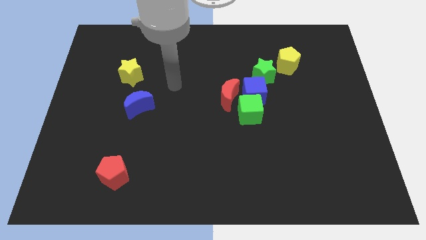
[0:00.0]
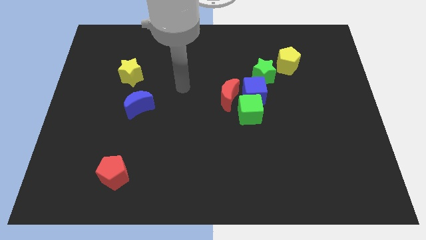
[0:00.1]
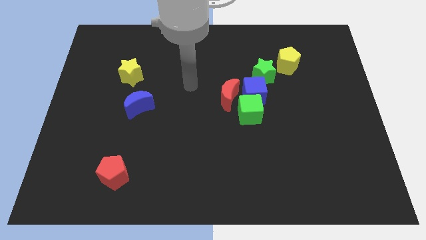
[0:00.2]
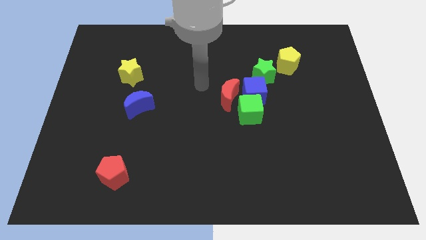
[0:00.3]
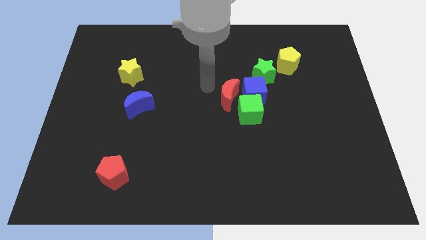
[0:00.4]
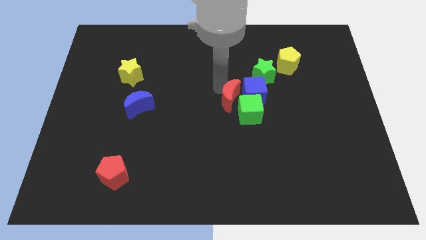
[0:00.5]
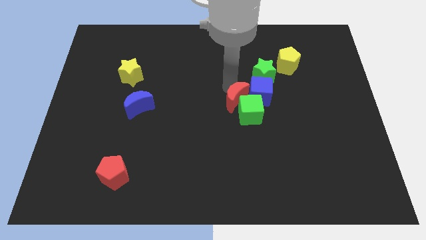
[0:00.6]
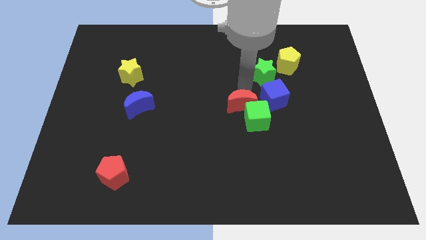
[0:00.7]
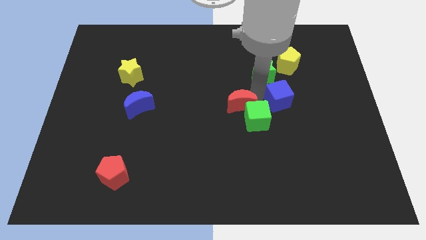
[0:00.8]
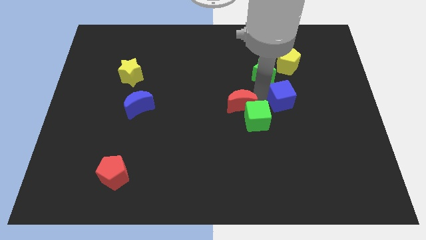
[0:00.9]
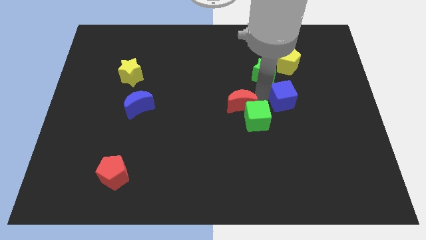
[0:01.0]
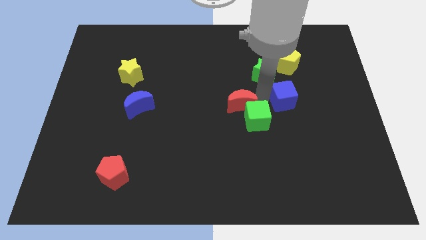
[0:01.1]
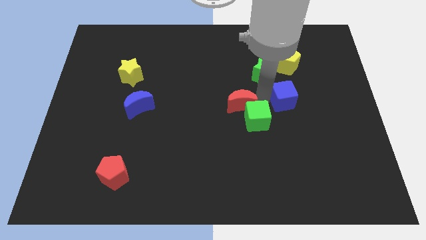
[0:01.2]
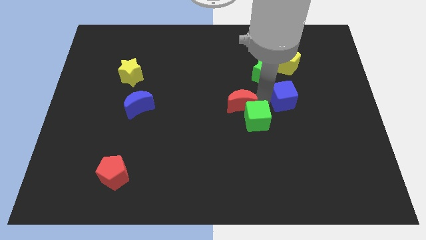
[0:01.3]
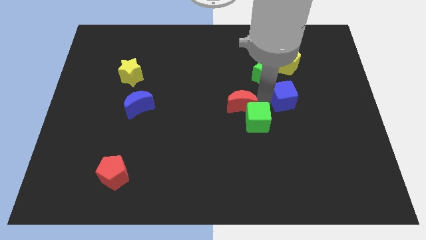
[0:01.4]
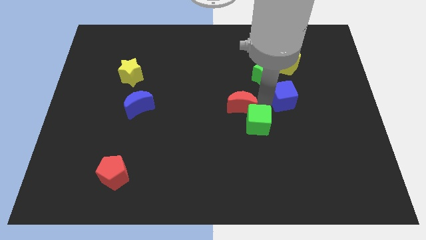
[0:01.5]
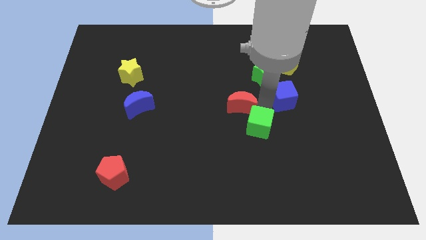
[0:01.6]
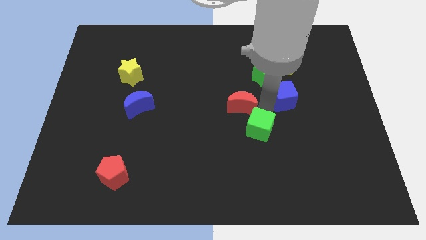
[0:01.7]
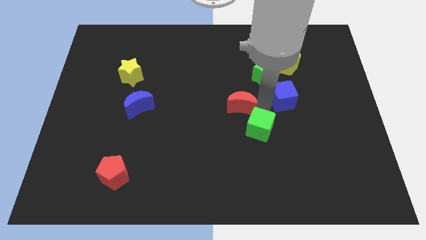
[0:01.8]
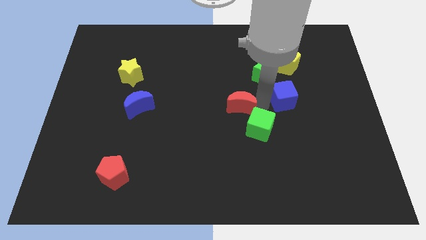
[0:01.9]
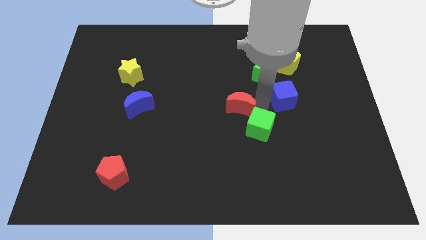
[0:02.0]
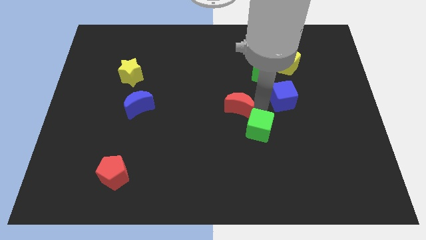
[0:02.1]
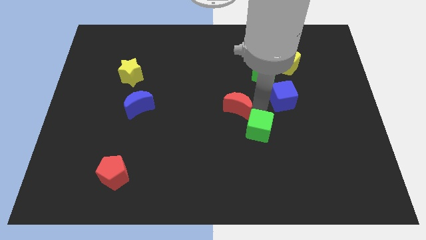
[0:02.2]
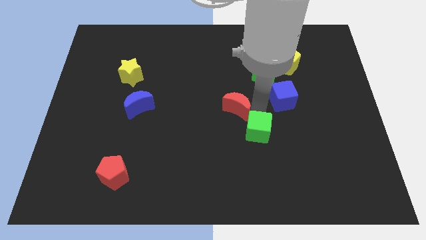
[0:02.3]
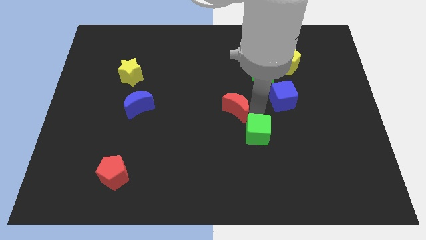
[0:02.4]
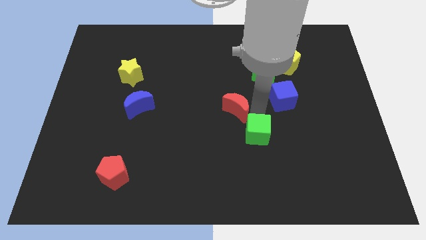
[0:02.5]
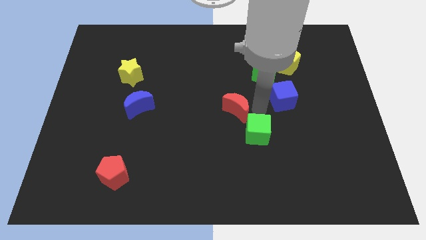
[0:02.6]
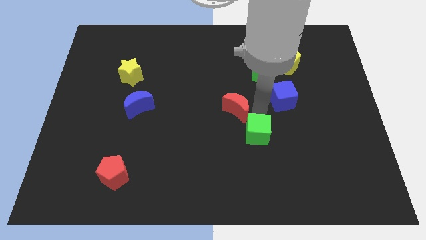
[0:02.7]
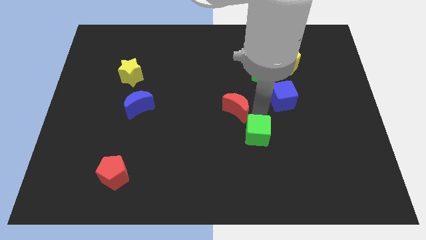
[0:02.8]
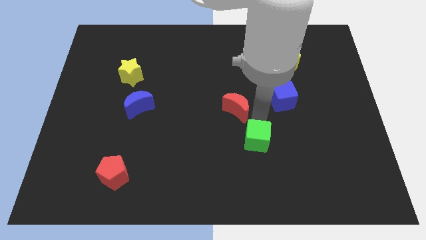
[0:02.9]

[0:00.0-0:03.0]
pull the green cube apart from the blue cube and red moon

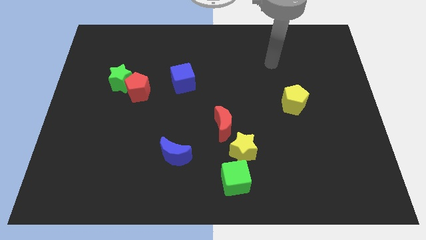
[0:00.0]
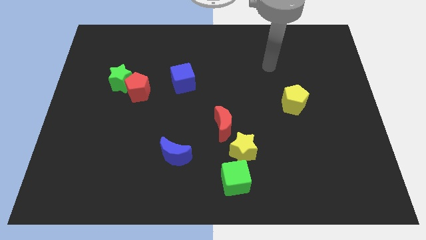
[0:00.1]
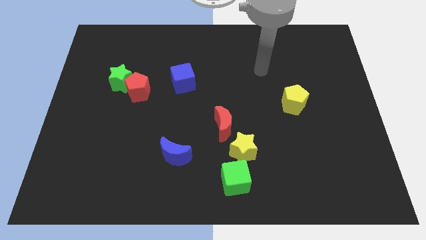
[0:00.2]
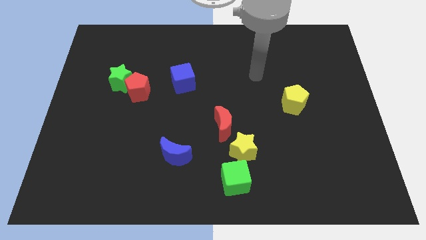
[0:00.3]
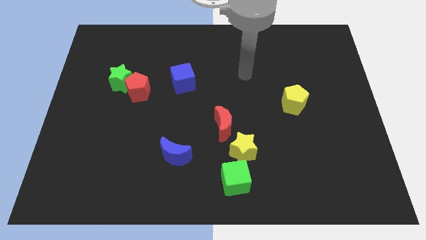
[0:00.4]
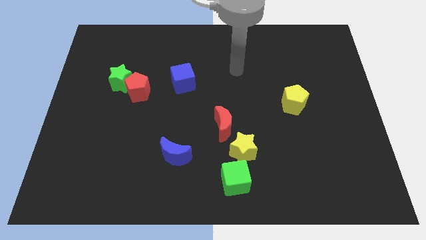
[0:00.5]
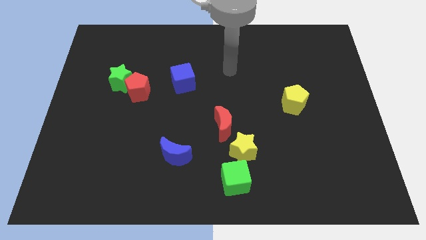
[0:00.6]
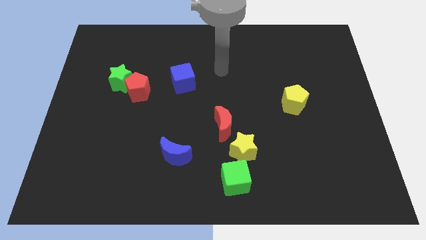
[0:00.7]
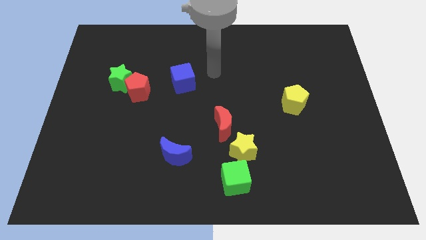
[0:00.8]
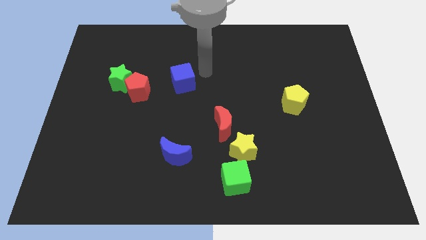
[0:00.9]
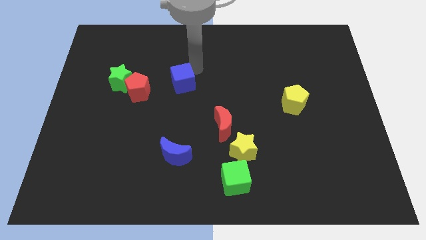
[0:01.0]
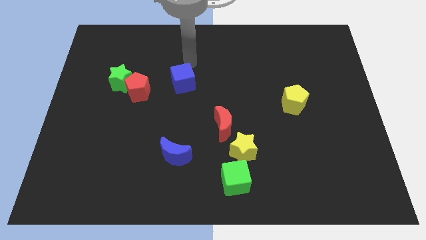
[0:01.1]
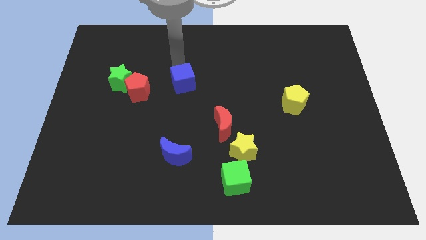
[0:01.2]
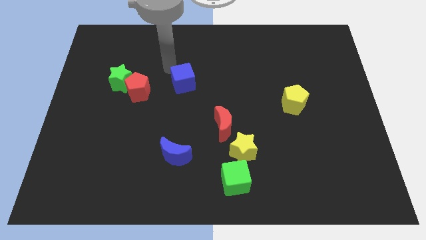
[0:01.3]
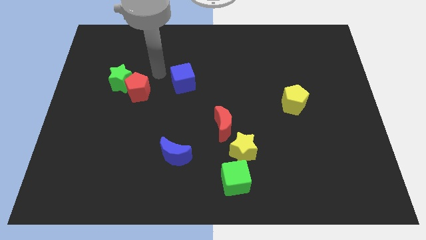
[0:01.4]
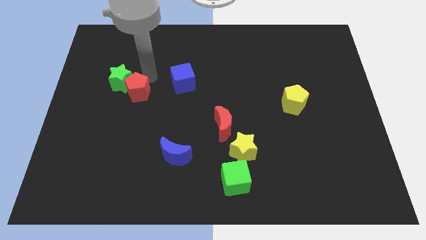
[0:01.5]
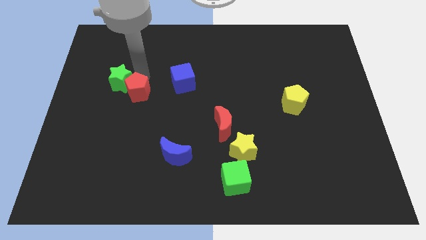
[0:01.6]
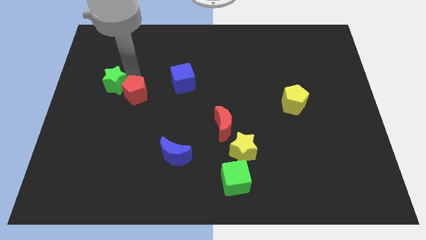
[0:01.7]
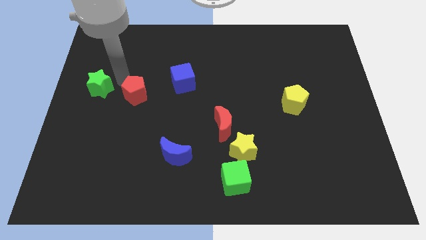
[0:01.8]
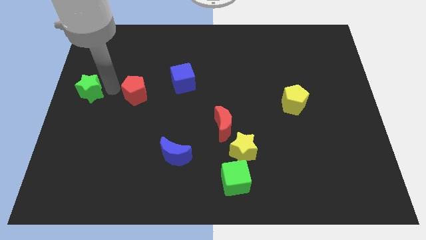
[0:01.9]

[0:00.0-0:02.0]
pull the red pentagon apart from the green star

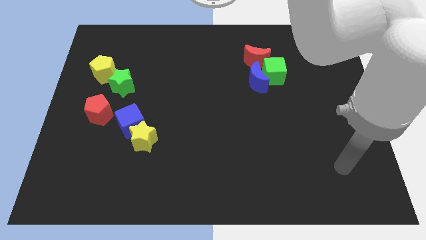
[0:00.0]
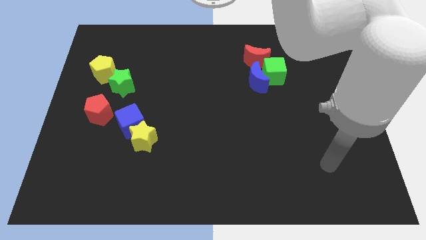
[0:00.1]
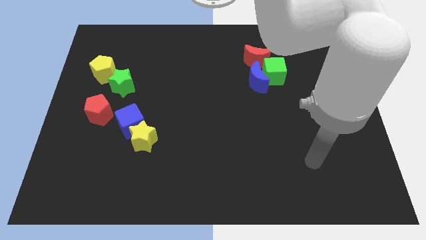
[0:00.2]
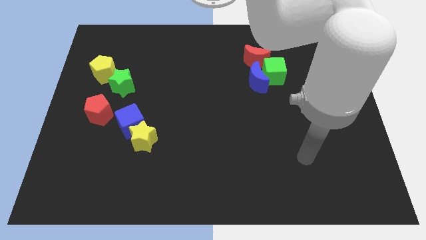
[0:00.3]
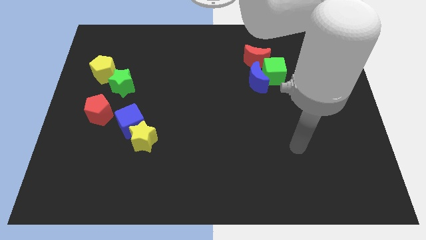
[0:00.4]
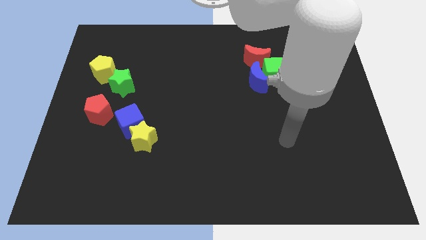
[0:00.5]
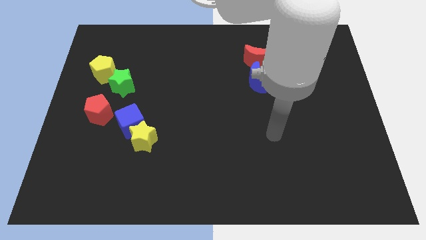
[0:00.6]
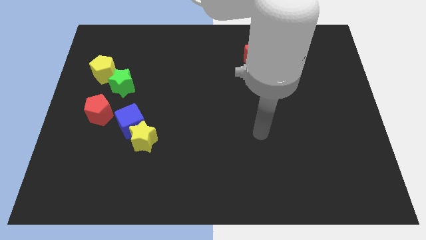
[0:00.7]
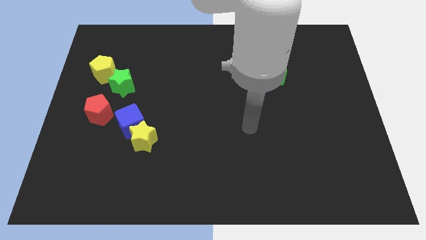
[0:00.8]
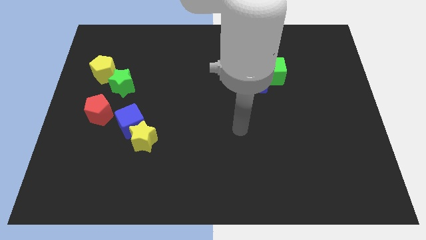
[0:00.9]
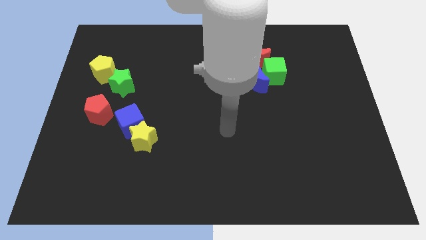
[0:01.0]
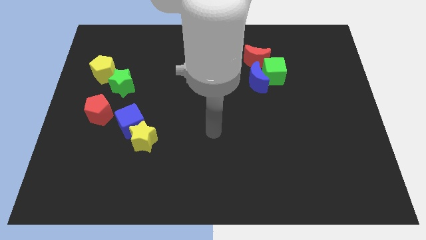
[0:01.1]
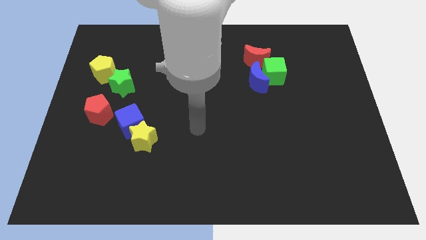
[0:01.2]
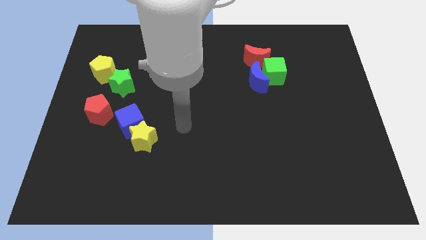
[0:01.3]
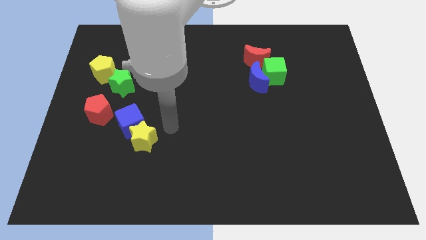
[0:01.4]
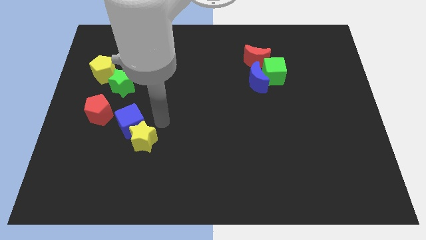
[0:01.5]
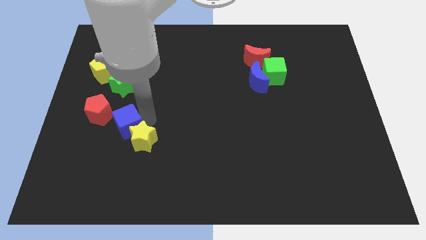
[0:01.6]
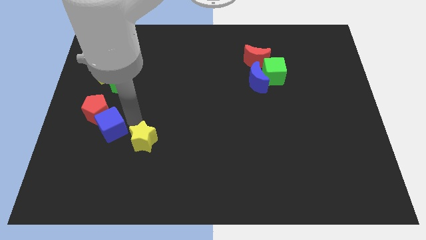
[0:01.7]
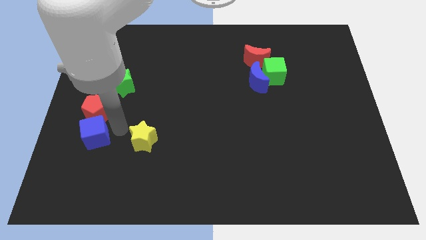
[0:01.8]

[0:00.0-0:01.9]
separate the yellow star from the blue cube

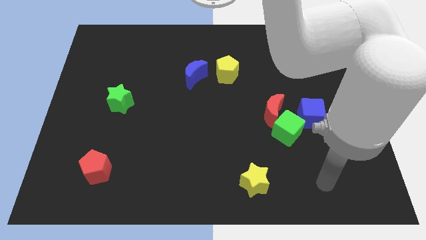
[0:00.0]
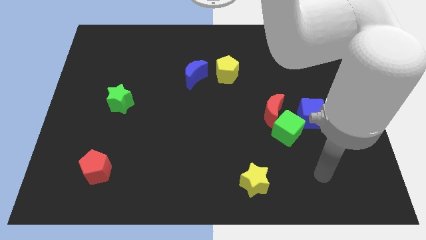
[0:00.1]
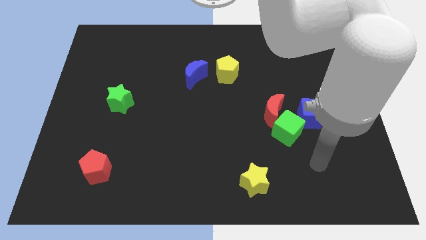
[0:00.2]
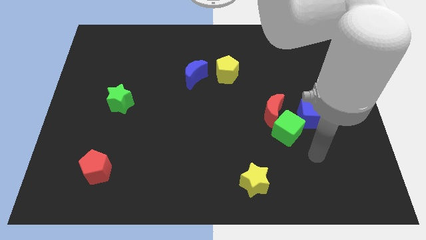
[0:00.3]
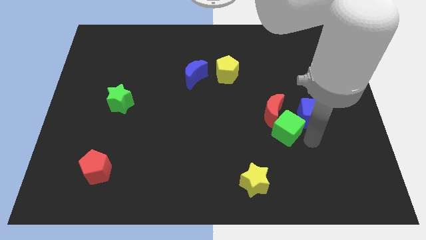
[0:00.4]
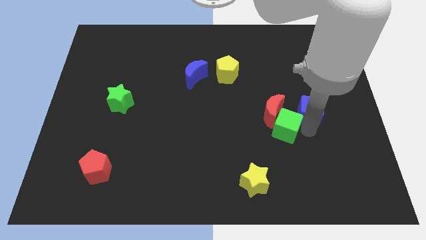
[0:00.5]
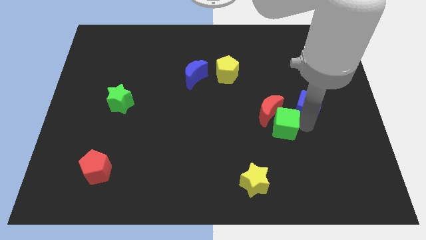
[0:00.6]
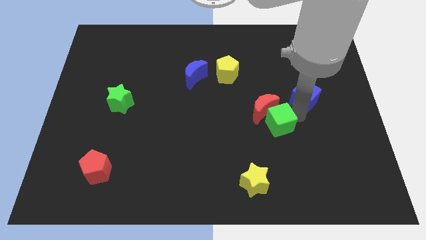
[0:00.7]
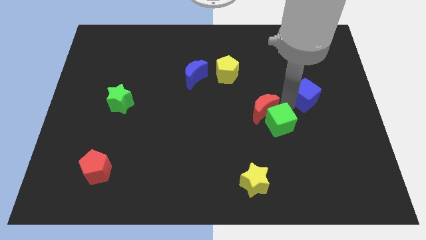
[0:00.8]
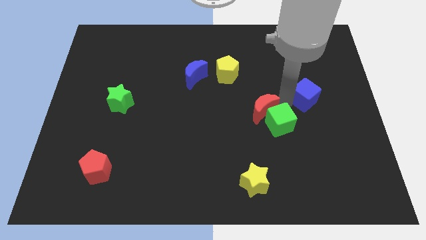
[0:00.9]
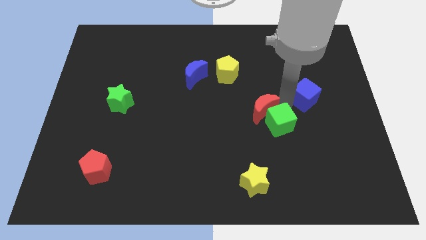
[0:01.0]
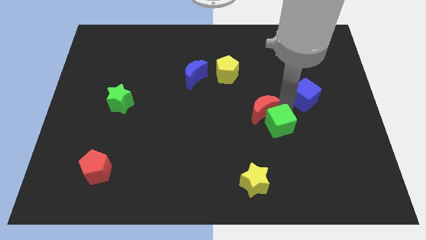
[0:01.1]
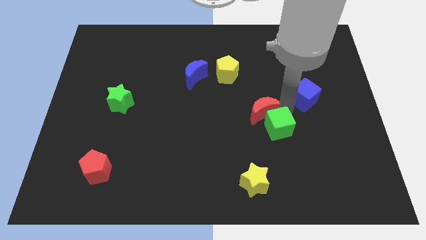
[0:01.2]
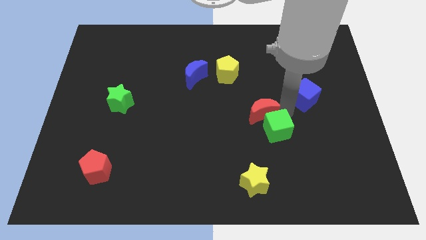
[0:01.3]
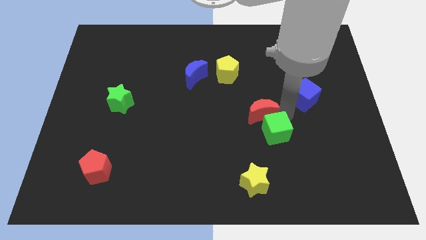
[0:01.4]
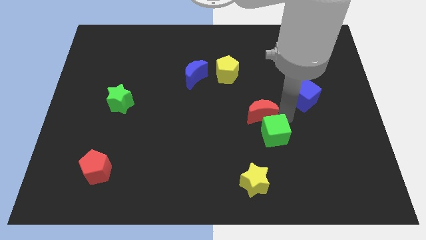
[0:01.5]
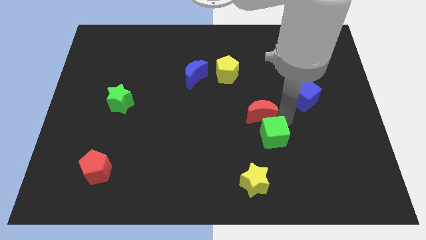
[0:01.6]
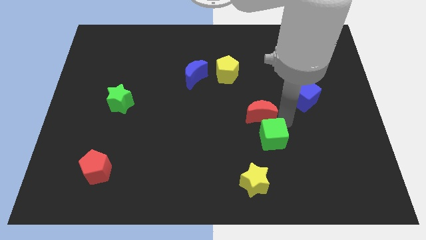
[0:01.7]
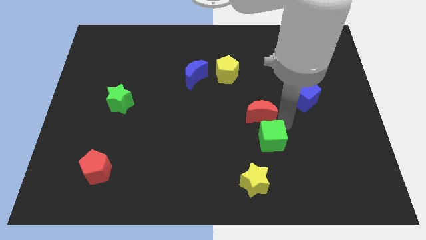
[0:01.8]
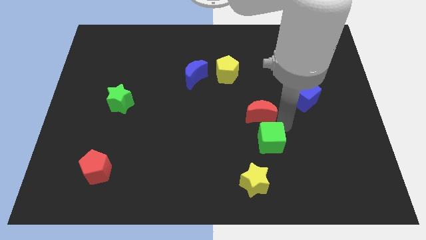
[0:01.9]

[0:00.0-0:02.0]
move the green cube away from the red moon and blue cube

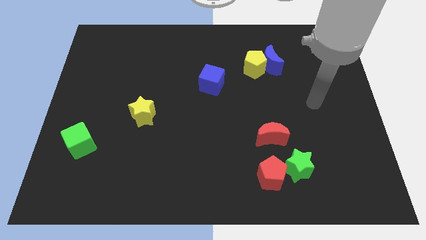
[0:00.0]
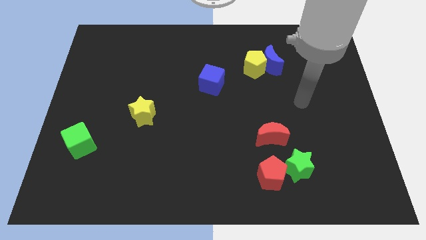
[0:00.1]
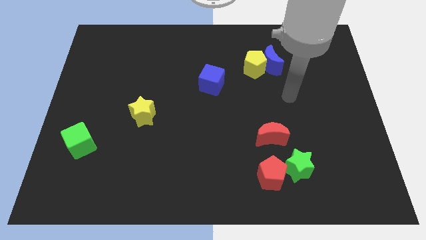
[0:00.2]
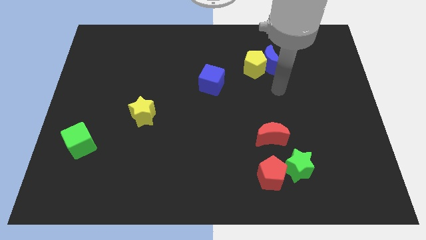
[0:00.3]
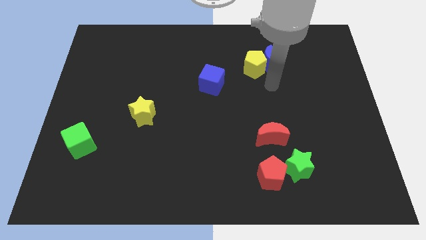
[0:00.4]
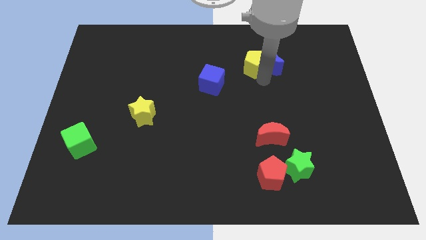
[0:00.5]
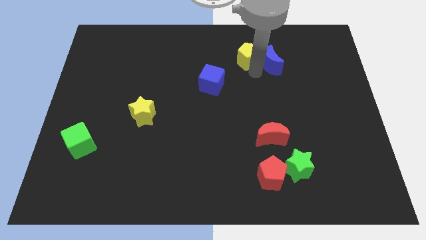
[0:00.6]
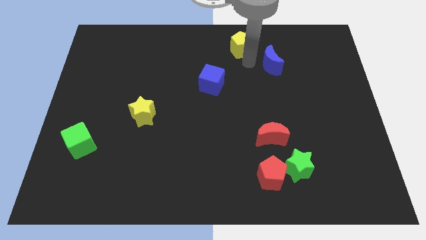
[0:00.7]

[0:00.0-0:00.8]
move the blue moon away from the yellow pentagon
